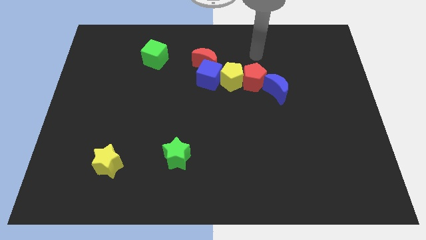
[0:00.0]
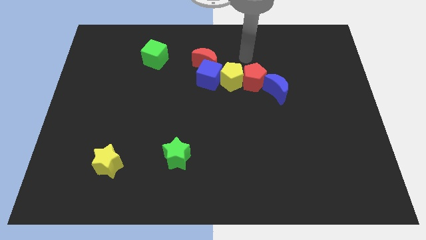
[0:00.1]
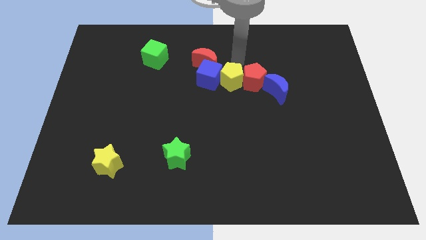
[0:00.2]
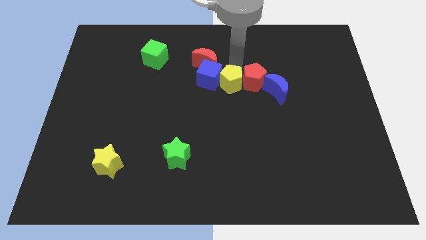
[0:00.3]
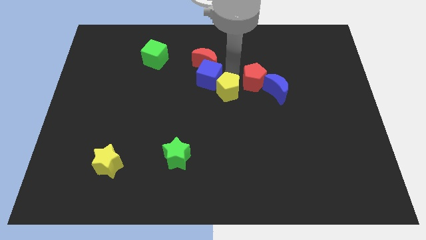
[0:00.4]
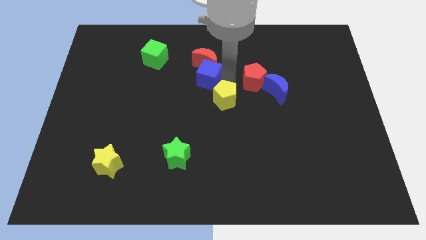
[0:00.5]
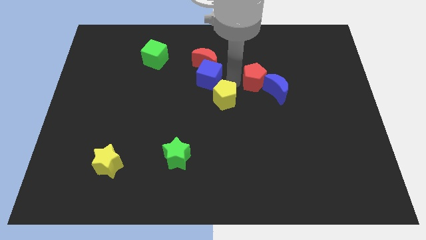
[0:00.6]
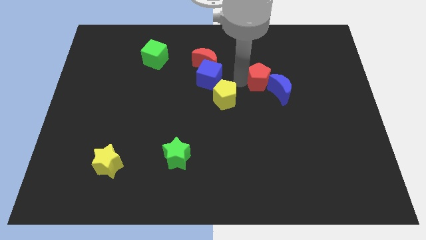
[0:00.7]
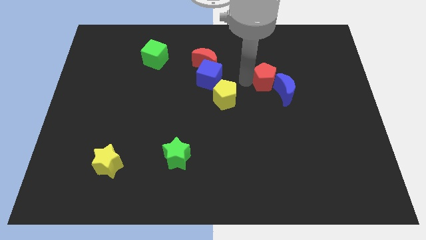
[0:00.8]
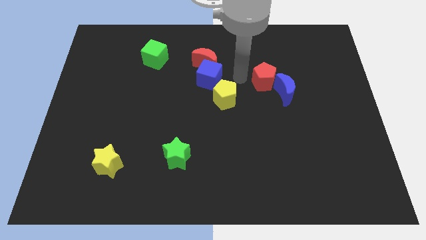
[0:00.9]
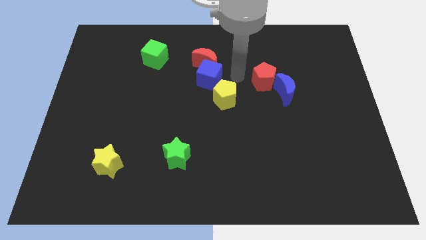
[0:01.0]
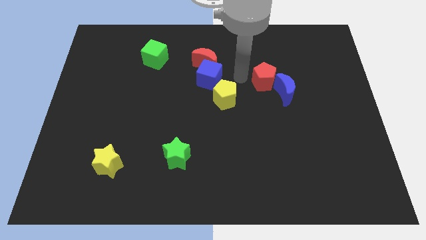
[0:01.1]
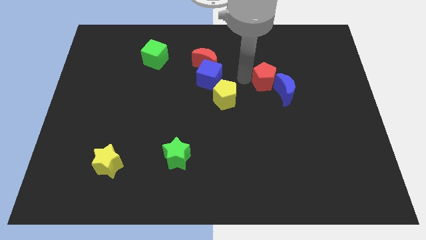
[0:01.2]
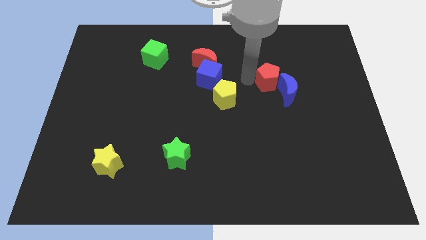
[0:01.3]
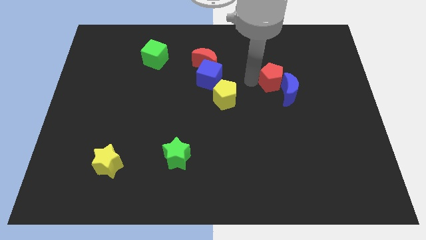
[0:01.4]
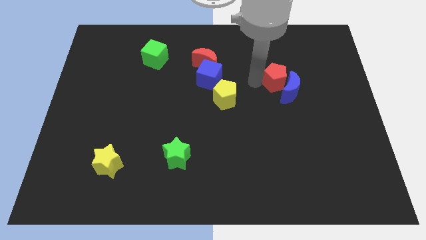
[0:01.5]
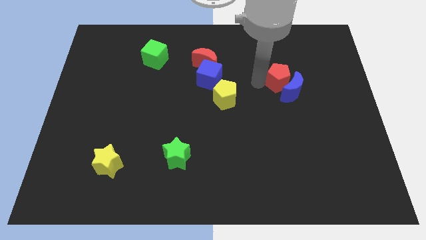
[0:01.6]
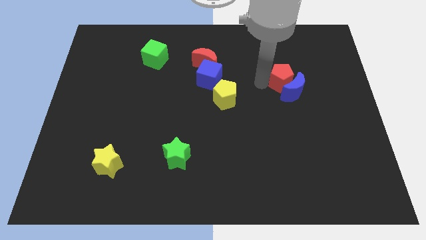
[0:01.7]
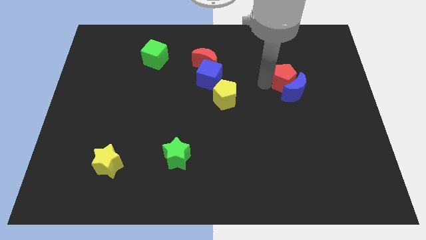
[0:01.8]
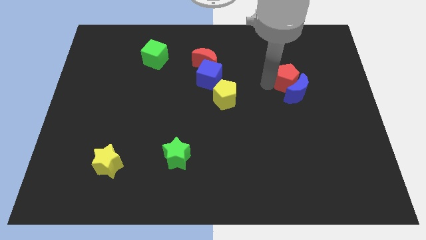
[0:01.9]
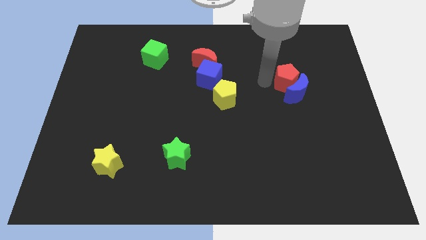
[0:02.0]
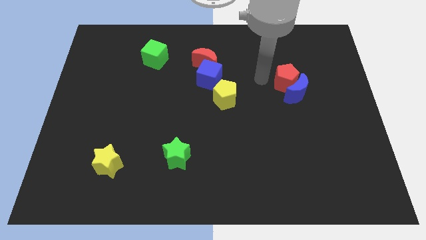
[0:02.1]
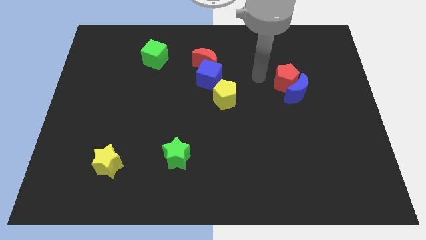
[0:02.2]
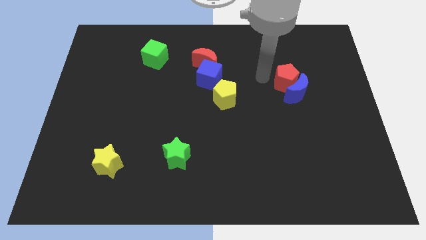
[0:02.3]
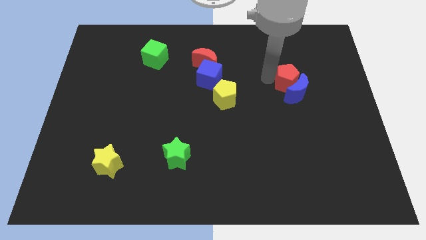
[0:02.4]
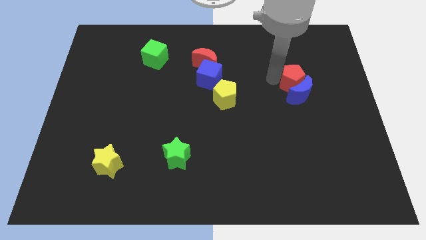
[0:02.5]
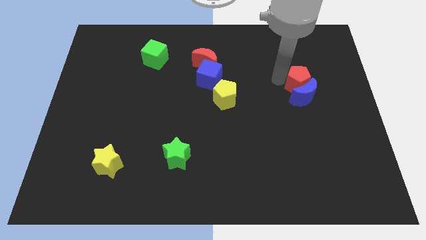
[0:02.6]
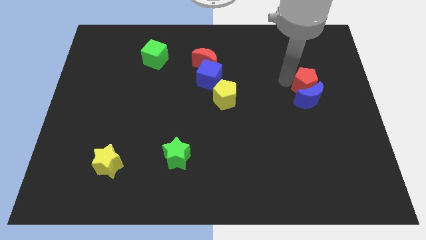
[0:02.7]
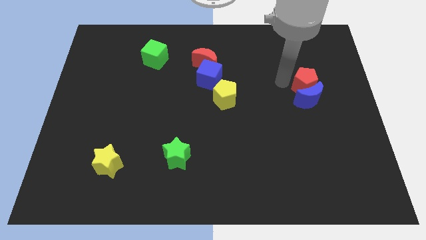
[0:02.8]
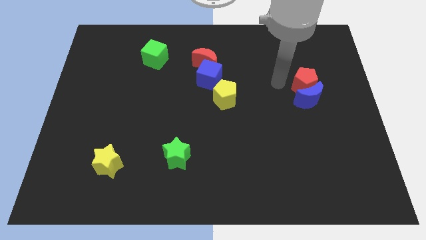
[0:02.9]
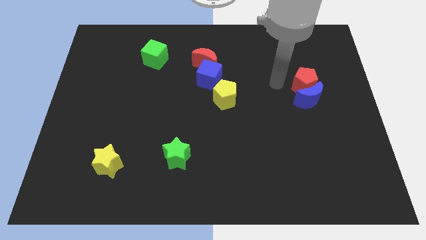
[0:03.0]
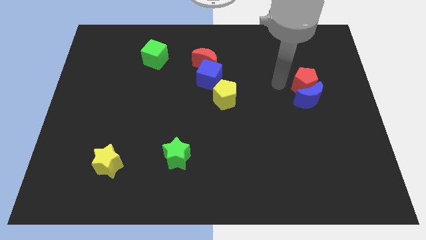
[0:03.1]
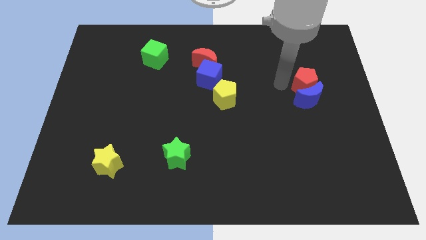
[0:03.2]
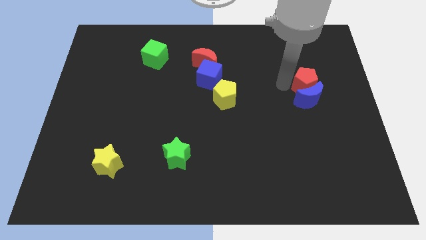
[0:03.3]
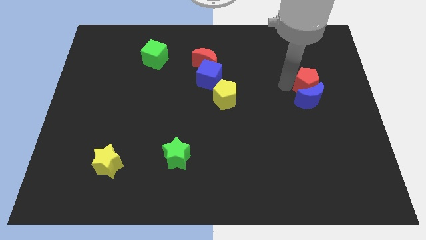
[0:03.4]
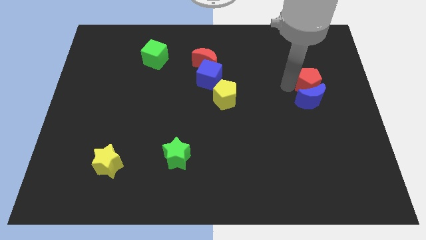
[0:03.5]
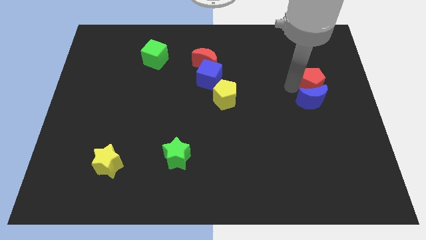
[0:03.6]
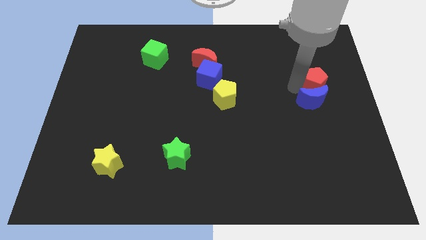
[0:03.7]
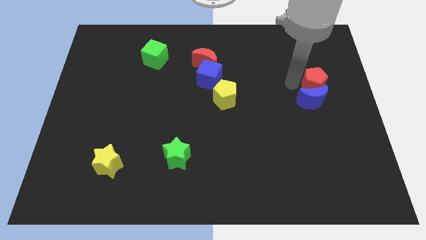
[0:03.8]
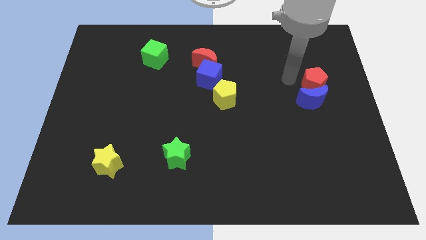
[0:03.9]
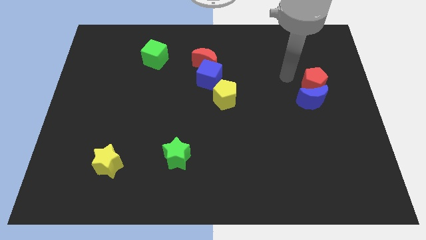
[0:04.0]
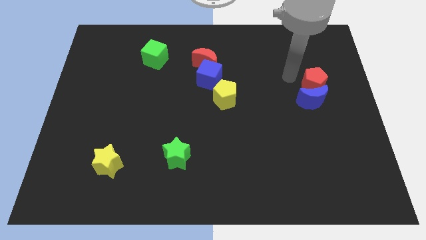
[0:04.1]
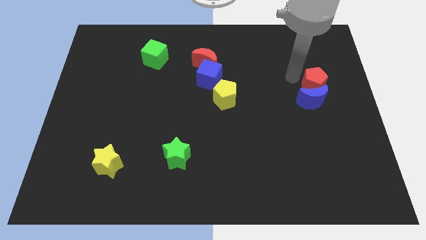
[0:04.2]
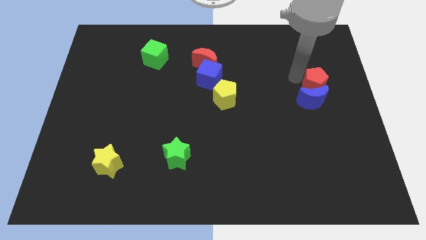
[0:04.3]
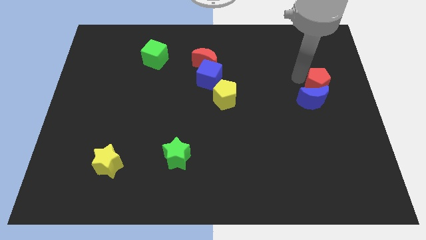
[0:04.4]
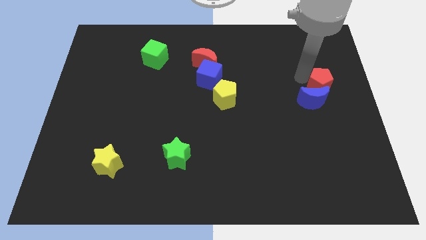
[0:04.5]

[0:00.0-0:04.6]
move the red pentagon to the right side

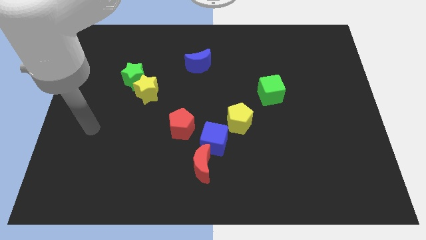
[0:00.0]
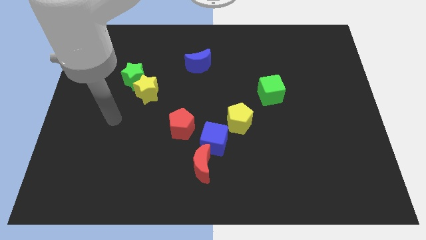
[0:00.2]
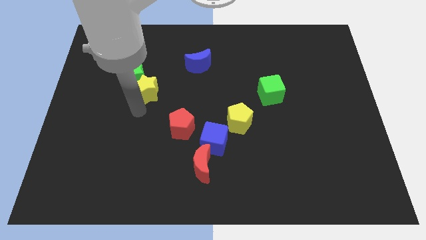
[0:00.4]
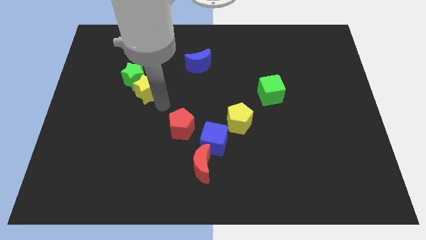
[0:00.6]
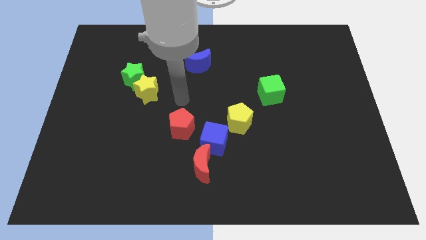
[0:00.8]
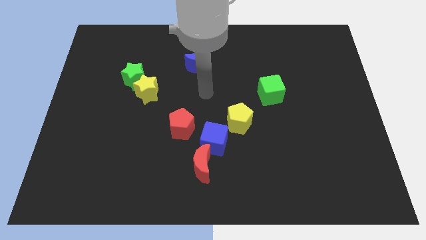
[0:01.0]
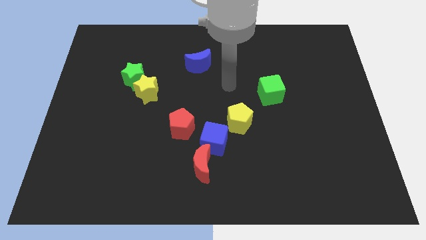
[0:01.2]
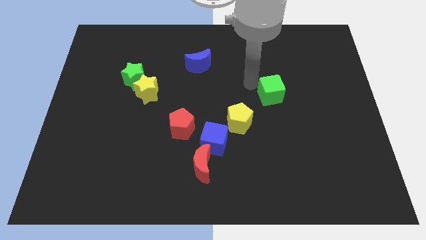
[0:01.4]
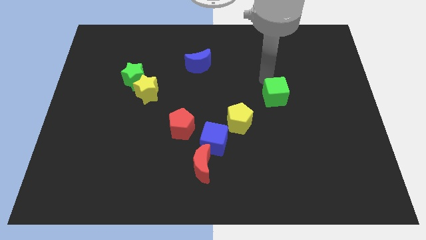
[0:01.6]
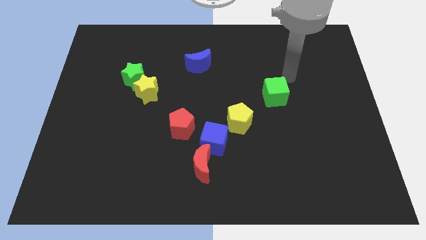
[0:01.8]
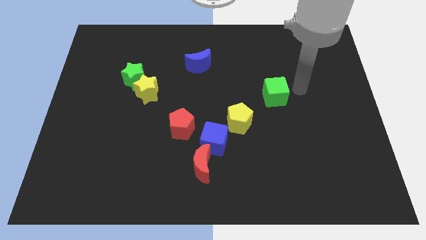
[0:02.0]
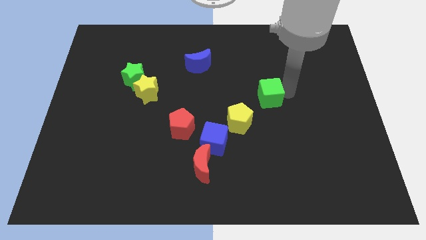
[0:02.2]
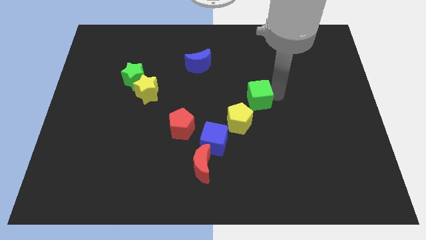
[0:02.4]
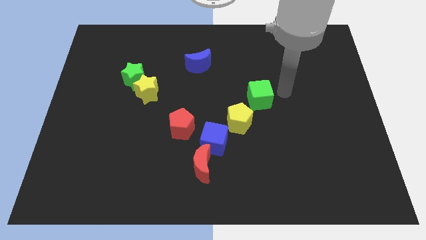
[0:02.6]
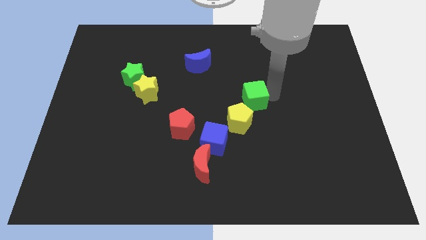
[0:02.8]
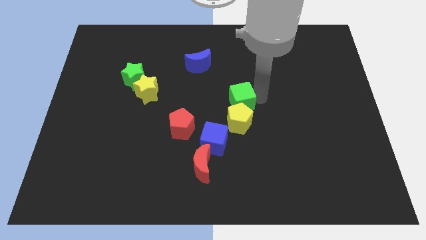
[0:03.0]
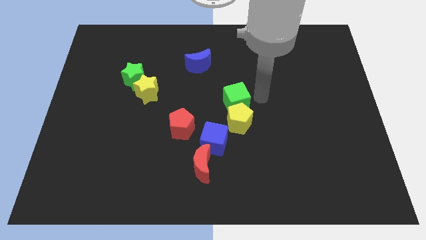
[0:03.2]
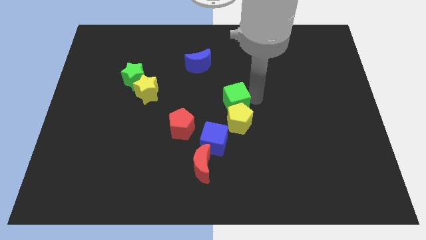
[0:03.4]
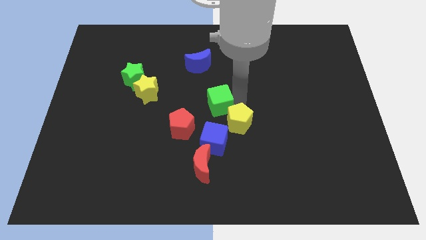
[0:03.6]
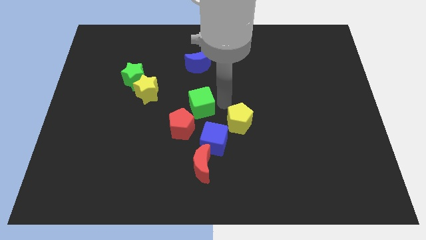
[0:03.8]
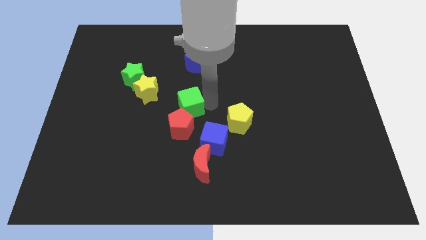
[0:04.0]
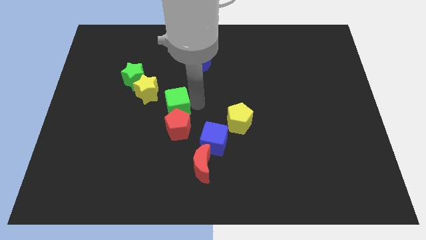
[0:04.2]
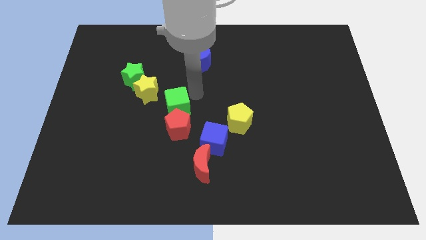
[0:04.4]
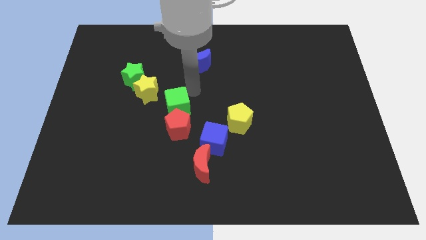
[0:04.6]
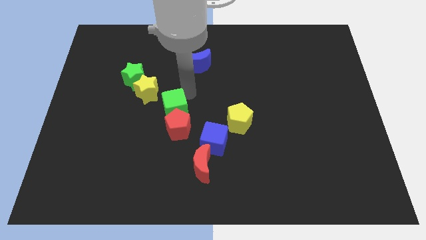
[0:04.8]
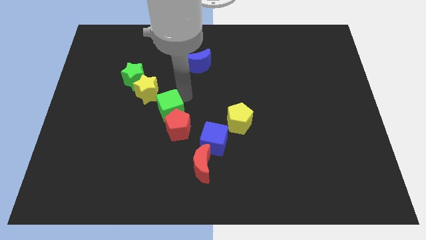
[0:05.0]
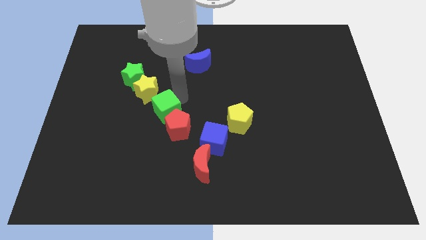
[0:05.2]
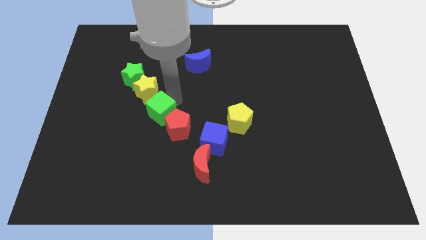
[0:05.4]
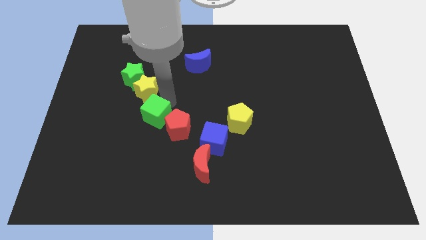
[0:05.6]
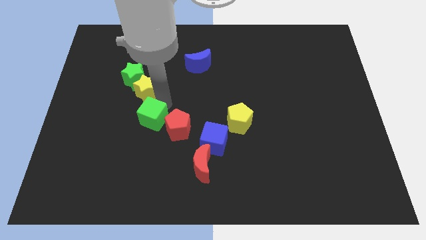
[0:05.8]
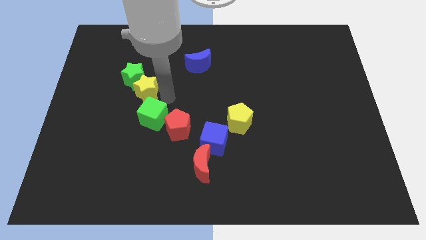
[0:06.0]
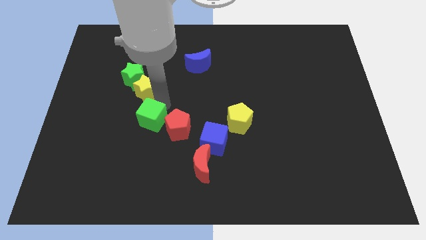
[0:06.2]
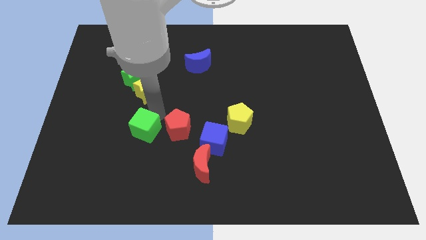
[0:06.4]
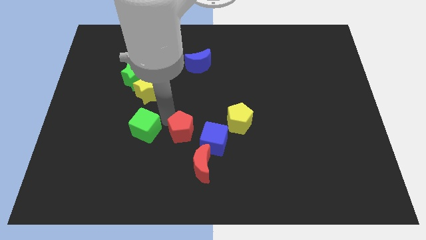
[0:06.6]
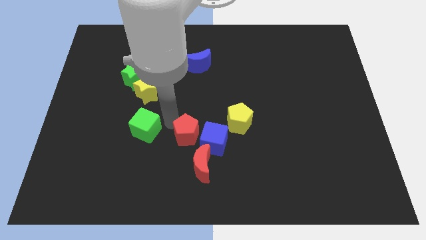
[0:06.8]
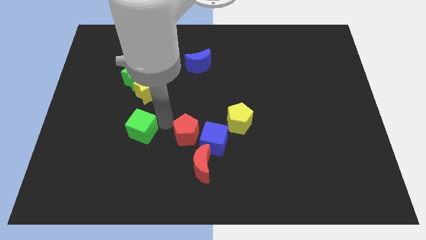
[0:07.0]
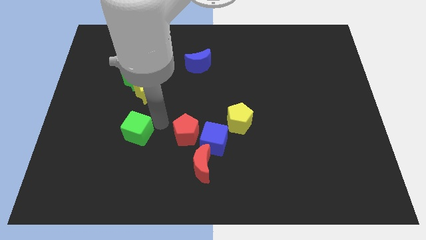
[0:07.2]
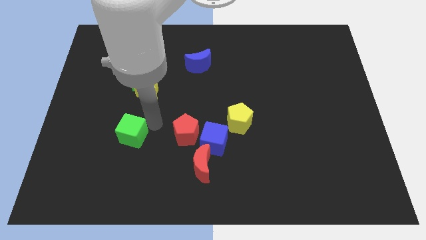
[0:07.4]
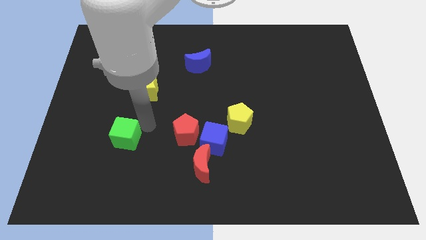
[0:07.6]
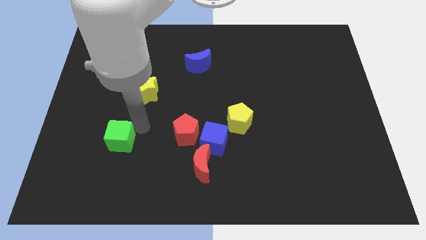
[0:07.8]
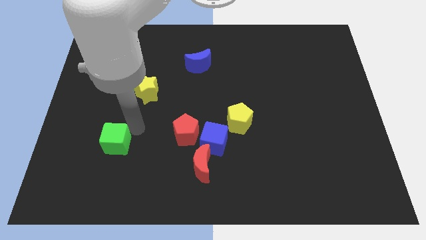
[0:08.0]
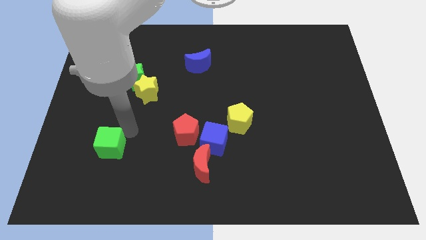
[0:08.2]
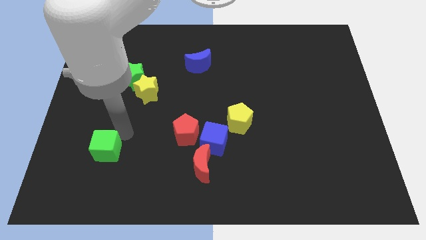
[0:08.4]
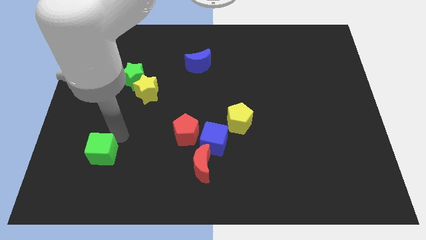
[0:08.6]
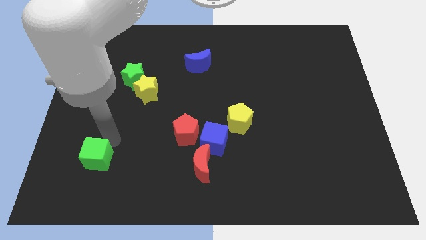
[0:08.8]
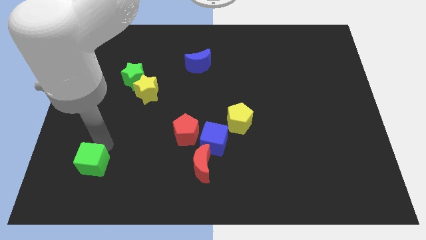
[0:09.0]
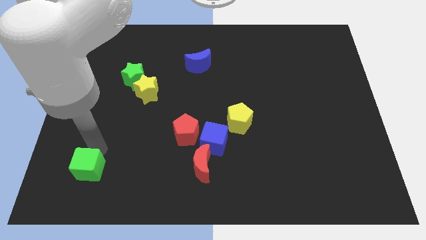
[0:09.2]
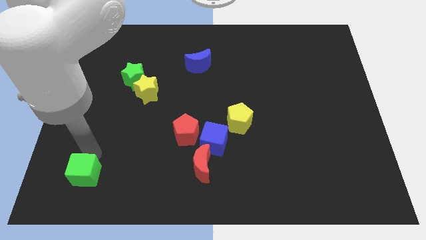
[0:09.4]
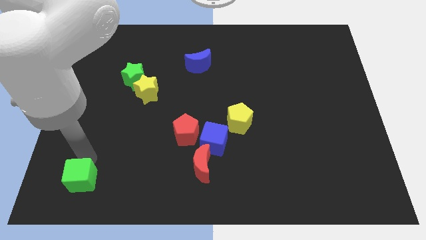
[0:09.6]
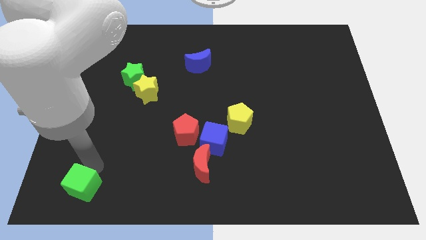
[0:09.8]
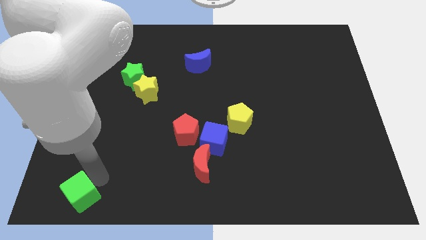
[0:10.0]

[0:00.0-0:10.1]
slide the green cube to the lower left corner
